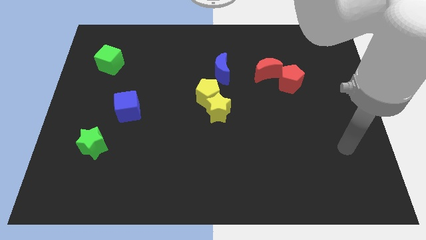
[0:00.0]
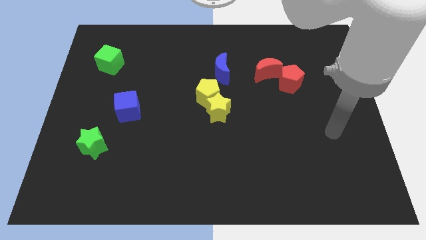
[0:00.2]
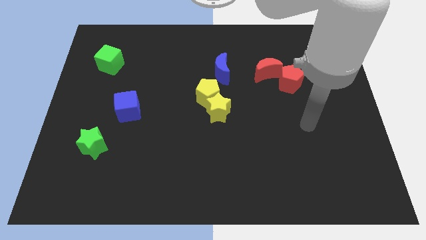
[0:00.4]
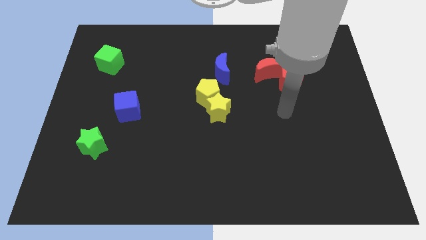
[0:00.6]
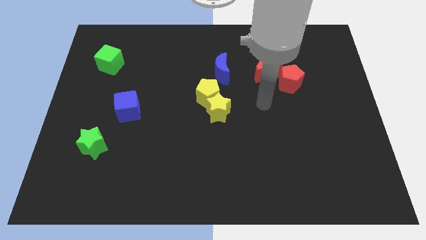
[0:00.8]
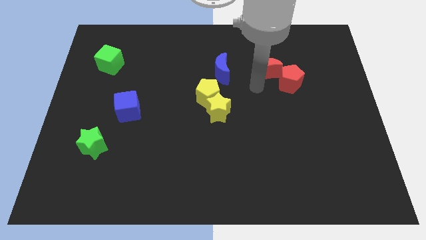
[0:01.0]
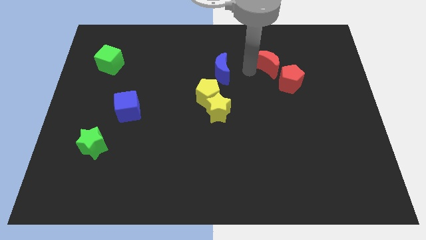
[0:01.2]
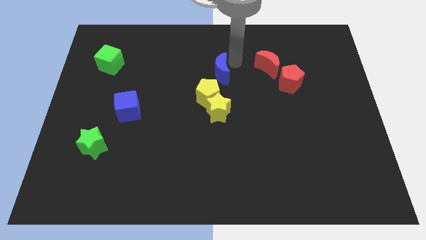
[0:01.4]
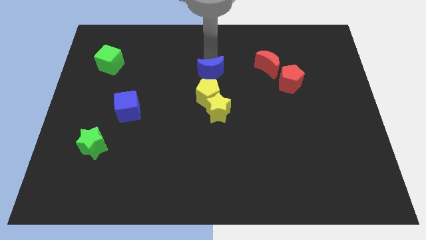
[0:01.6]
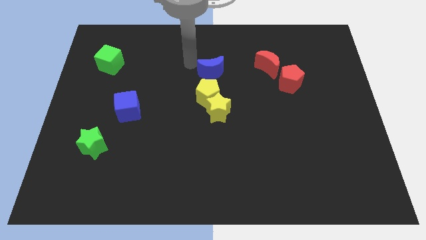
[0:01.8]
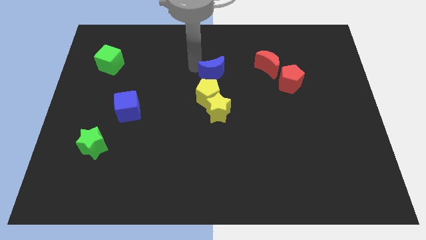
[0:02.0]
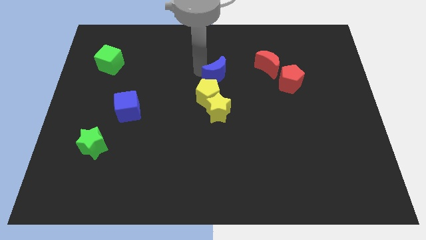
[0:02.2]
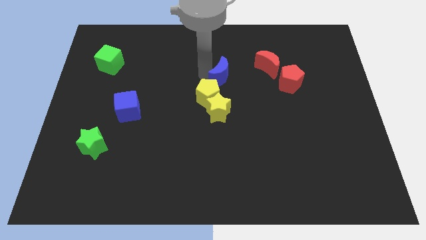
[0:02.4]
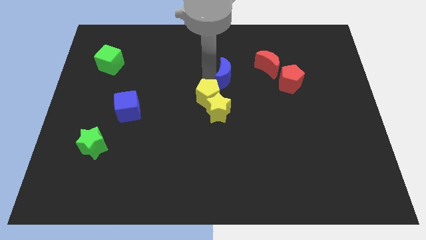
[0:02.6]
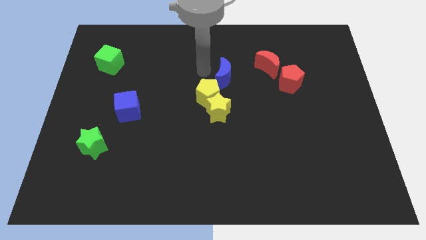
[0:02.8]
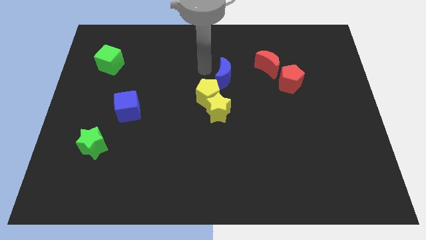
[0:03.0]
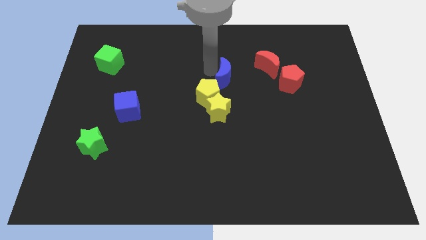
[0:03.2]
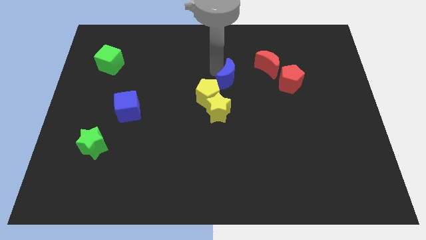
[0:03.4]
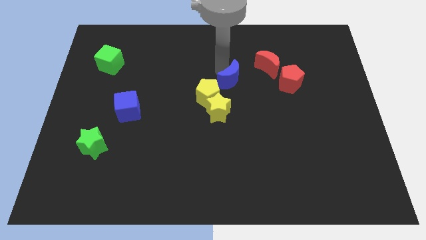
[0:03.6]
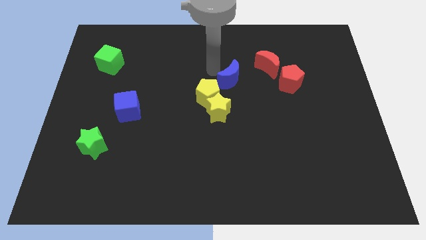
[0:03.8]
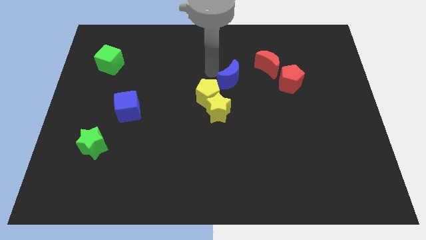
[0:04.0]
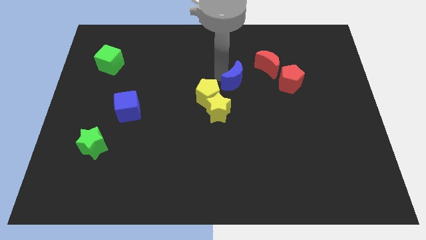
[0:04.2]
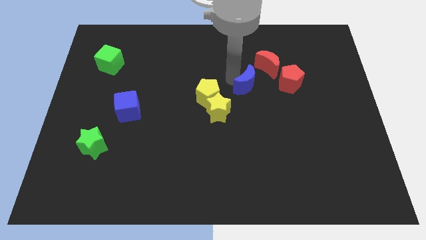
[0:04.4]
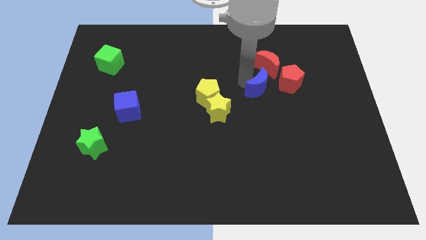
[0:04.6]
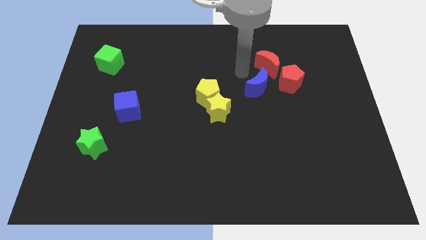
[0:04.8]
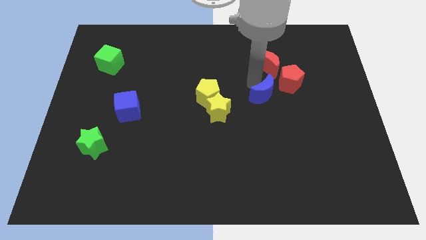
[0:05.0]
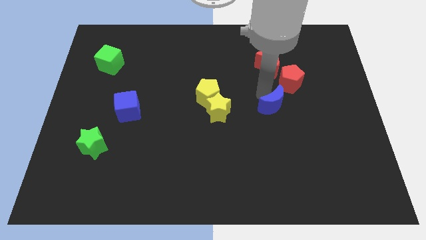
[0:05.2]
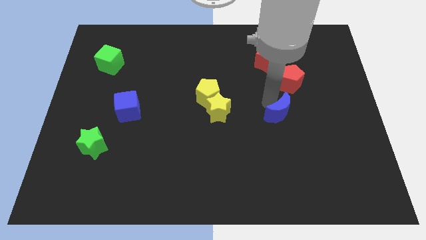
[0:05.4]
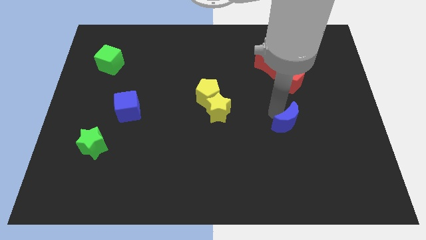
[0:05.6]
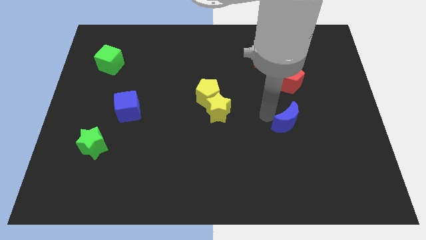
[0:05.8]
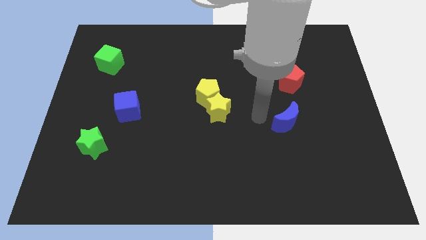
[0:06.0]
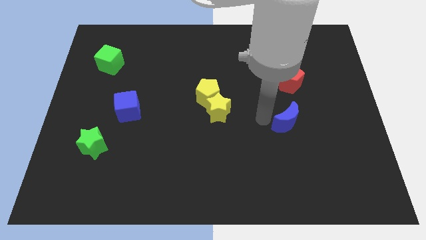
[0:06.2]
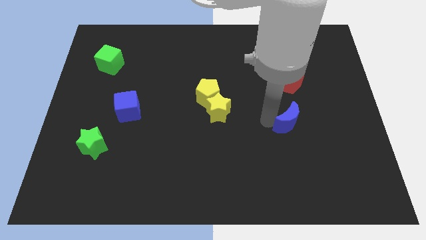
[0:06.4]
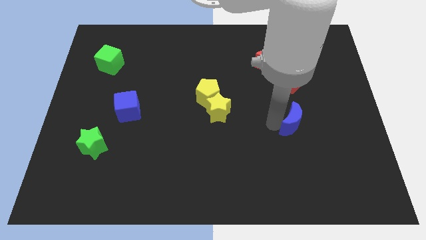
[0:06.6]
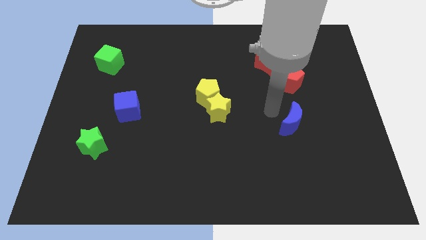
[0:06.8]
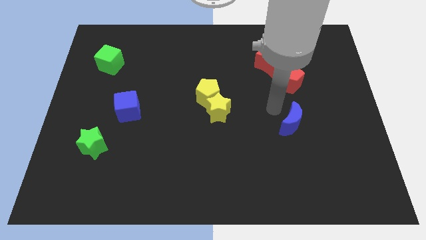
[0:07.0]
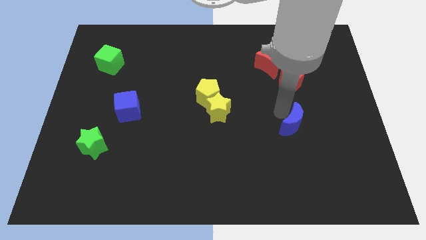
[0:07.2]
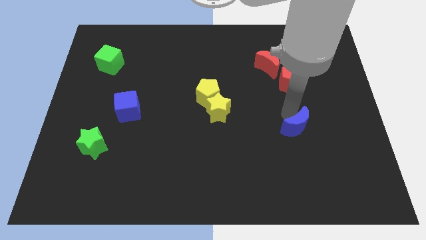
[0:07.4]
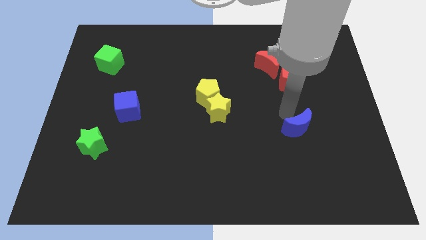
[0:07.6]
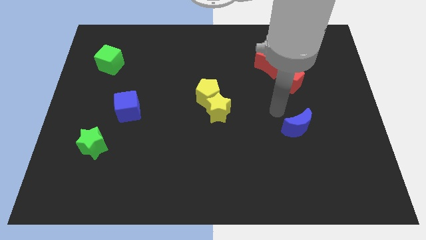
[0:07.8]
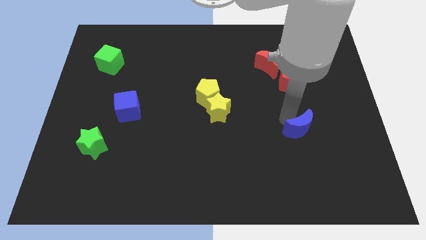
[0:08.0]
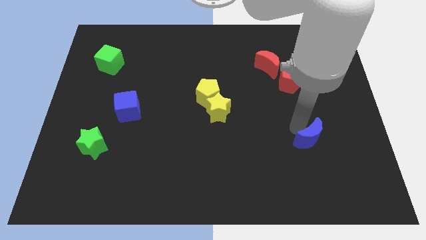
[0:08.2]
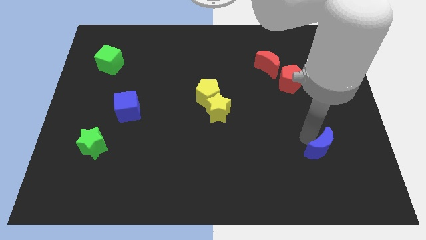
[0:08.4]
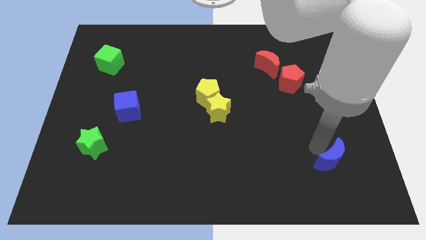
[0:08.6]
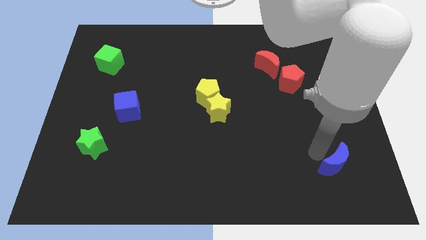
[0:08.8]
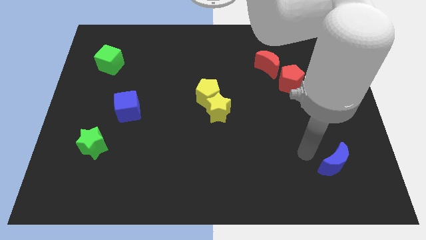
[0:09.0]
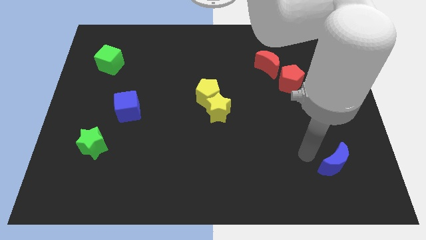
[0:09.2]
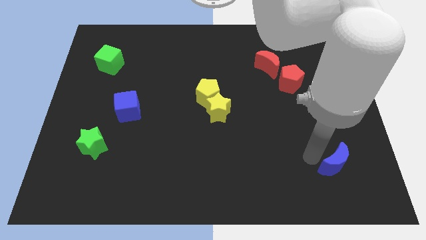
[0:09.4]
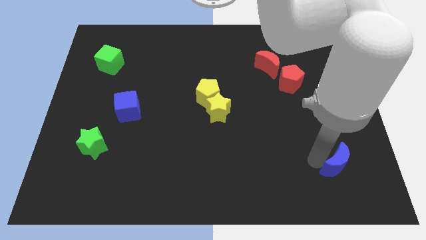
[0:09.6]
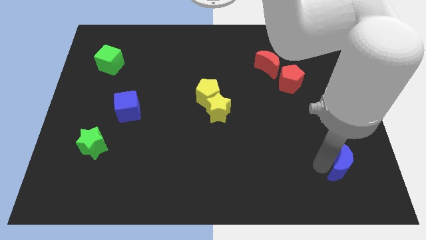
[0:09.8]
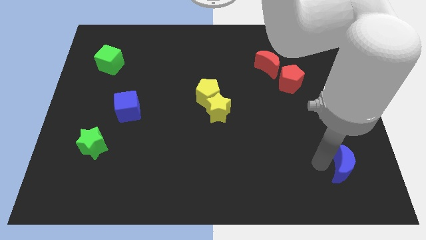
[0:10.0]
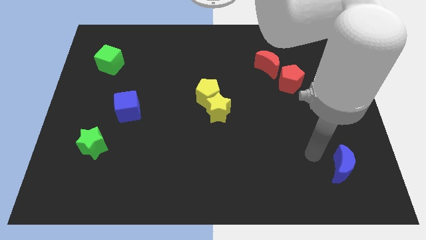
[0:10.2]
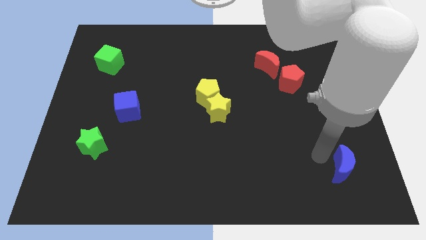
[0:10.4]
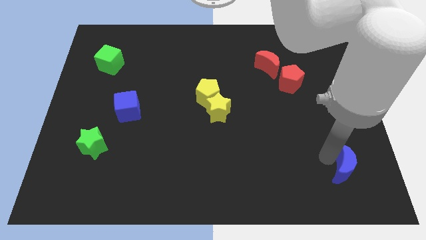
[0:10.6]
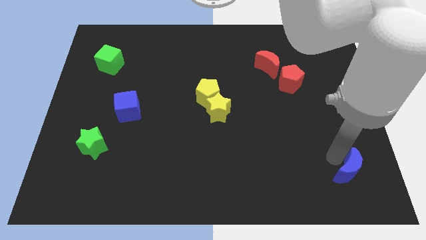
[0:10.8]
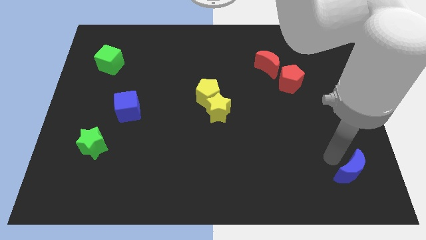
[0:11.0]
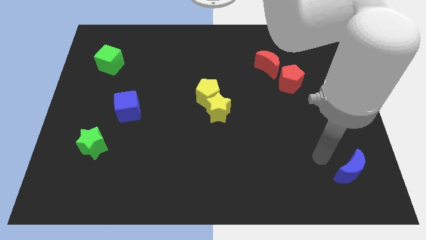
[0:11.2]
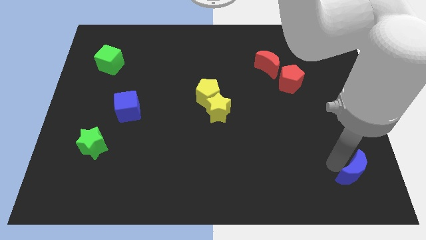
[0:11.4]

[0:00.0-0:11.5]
push the blue moon to the bottom right
